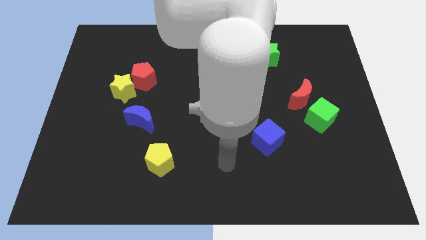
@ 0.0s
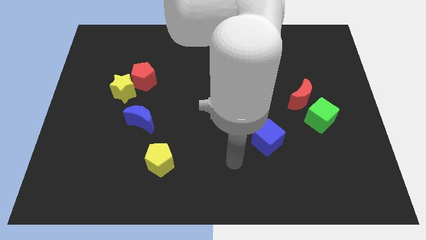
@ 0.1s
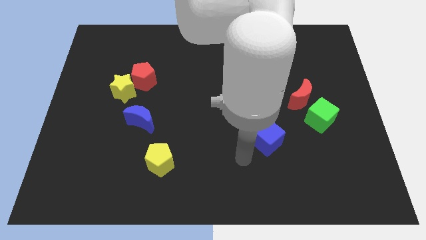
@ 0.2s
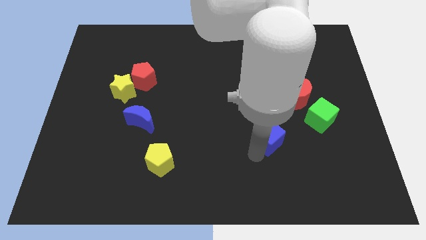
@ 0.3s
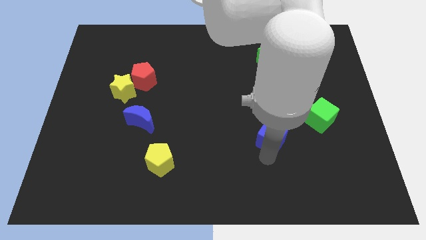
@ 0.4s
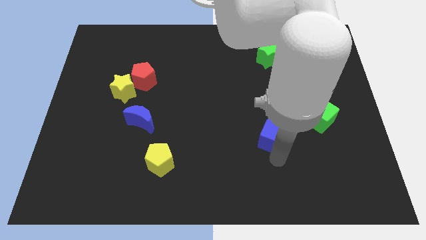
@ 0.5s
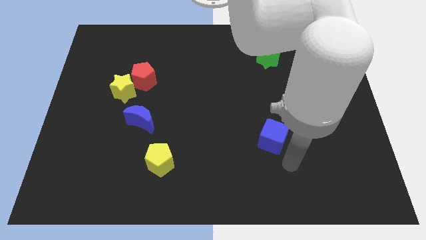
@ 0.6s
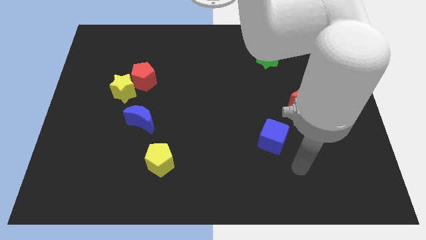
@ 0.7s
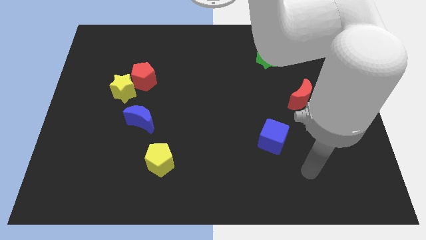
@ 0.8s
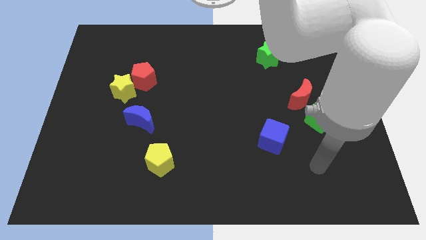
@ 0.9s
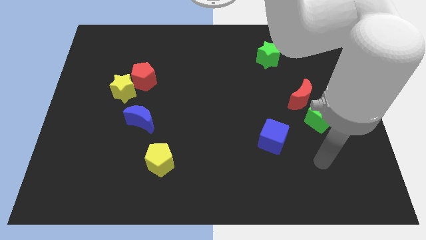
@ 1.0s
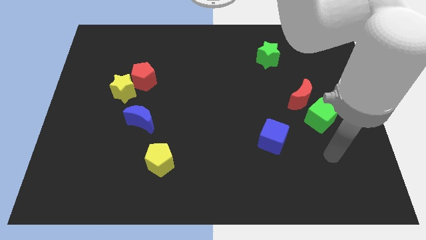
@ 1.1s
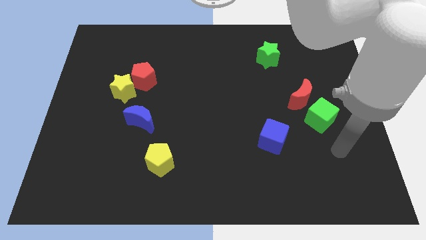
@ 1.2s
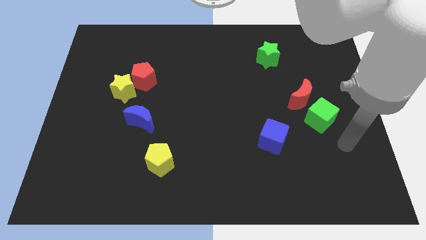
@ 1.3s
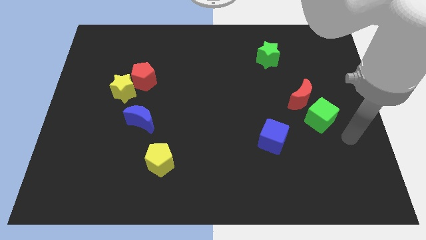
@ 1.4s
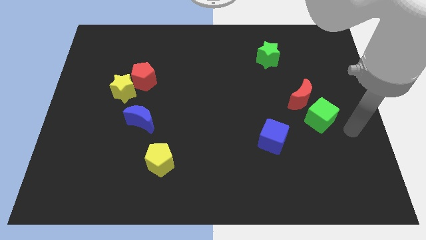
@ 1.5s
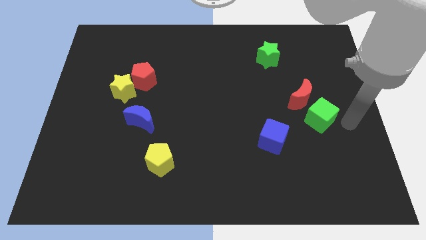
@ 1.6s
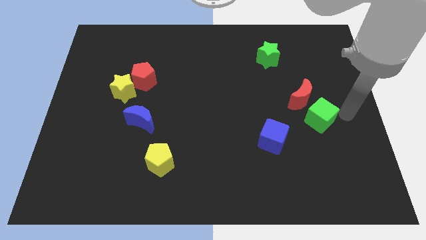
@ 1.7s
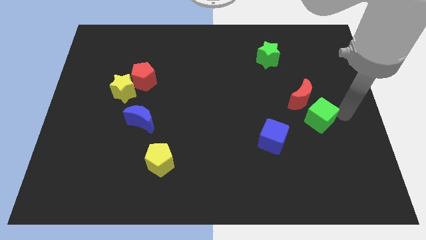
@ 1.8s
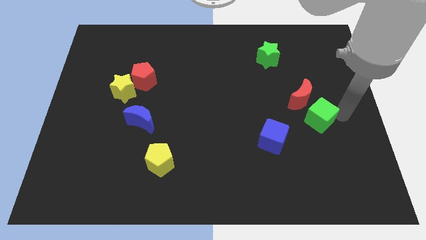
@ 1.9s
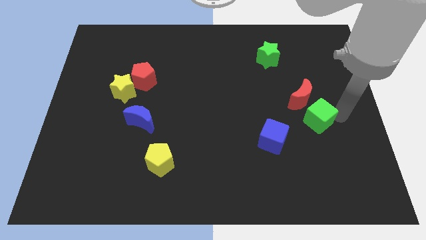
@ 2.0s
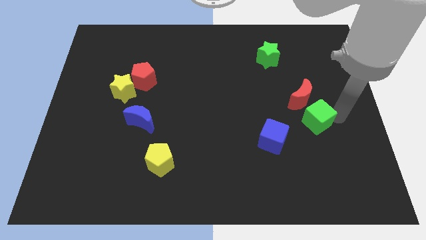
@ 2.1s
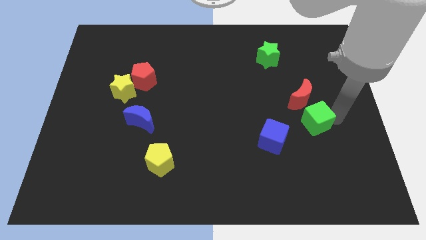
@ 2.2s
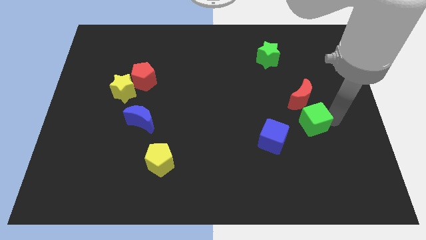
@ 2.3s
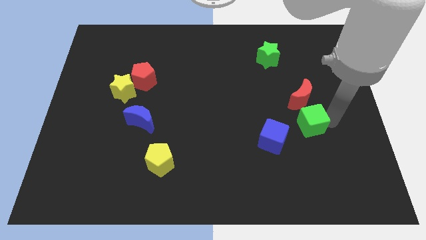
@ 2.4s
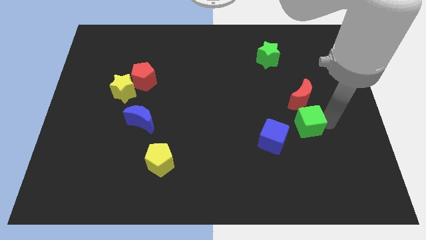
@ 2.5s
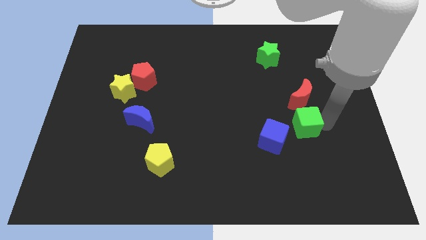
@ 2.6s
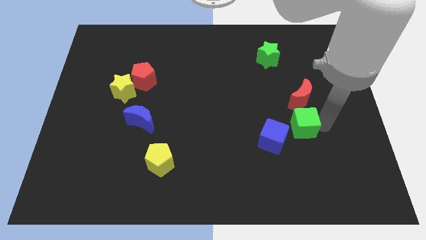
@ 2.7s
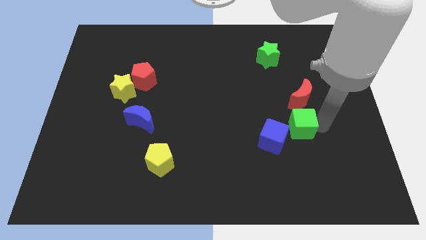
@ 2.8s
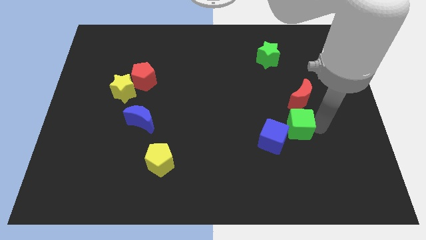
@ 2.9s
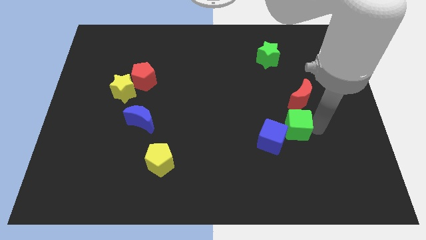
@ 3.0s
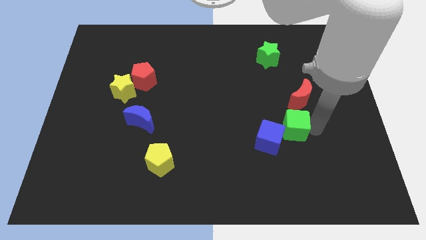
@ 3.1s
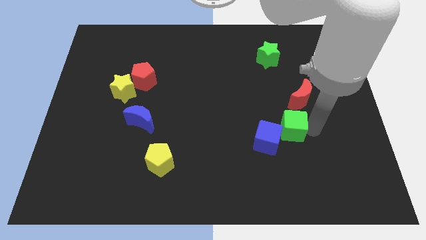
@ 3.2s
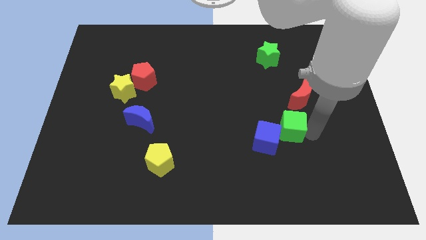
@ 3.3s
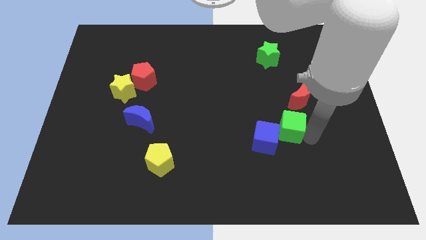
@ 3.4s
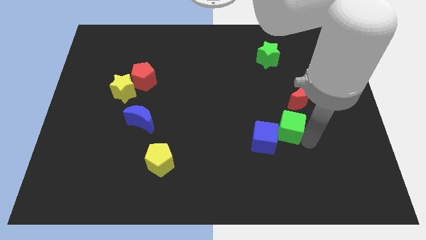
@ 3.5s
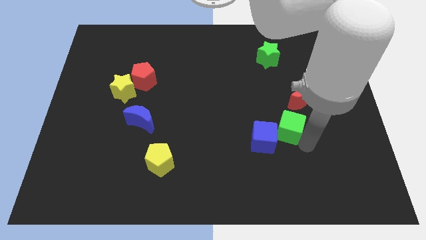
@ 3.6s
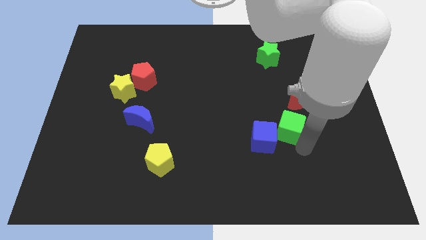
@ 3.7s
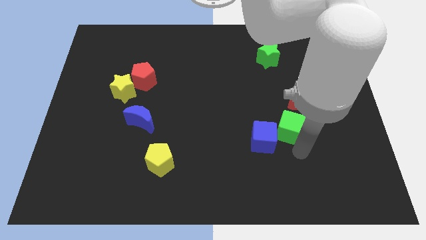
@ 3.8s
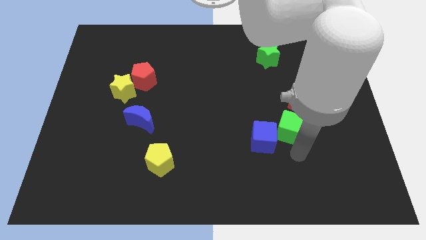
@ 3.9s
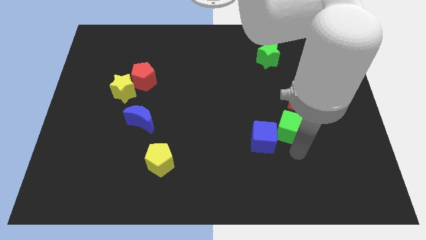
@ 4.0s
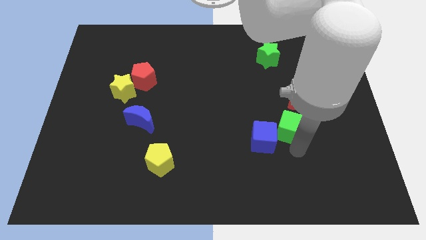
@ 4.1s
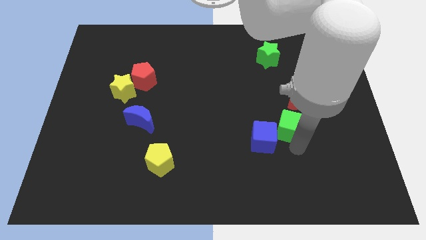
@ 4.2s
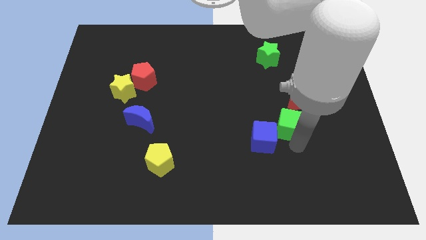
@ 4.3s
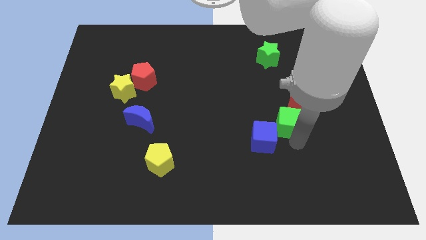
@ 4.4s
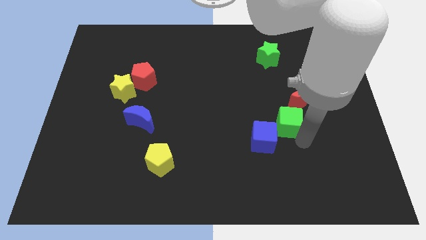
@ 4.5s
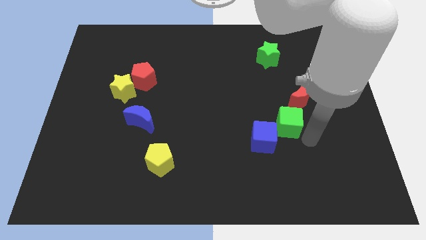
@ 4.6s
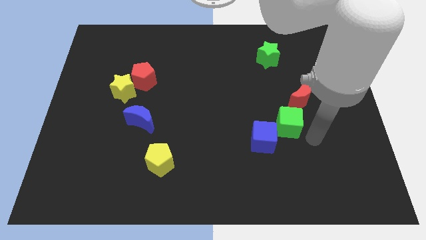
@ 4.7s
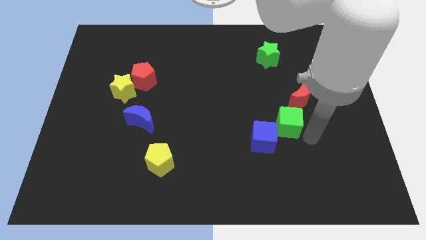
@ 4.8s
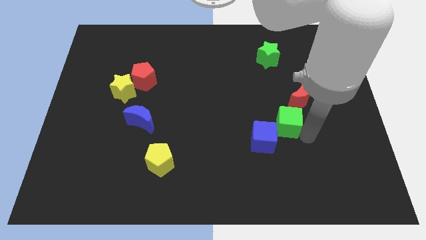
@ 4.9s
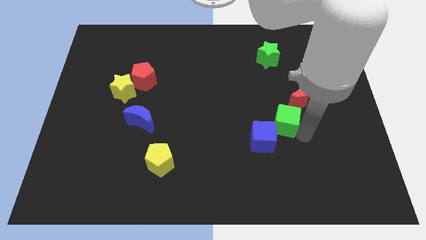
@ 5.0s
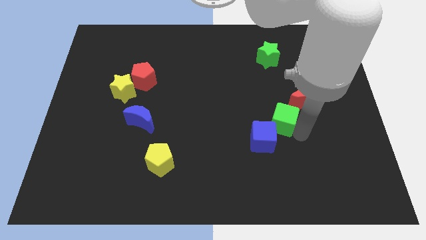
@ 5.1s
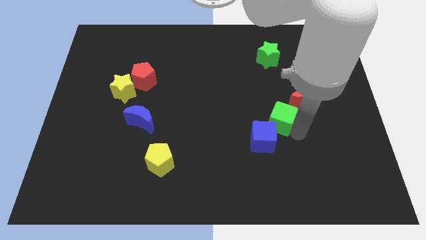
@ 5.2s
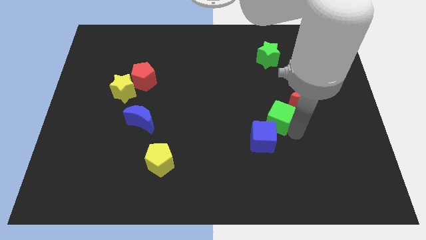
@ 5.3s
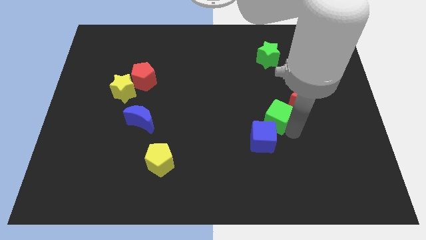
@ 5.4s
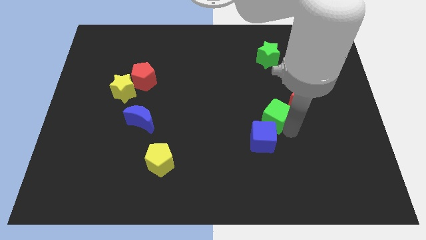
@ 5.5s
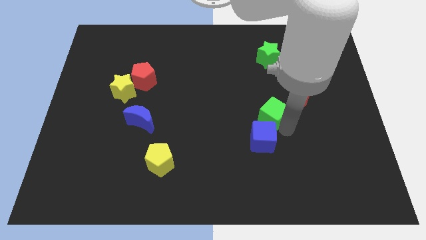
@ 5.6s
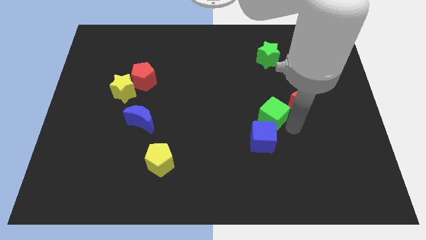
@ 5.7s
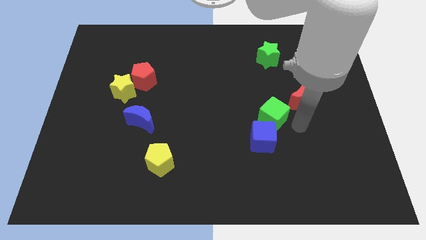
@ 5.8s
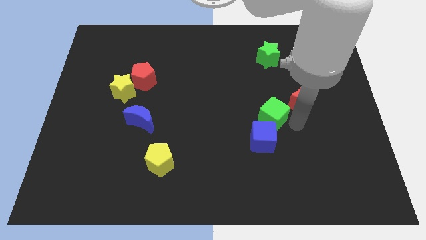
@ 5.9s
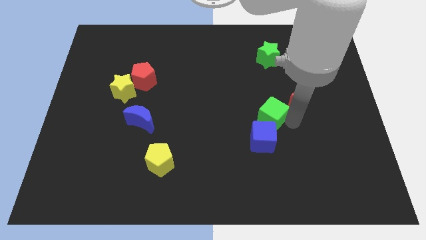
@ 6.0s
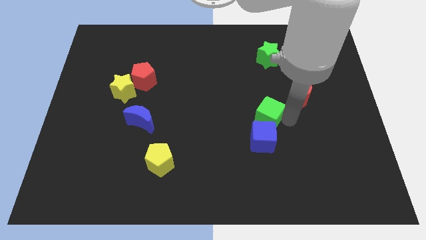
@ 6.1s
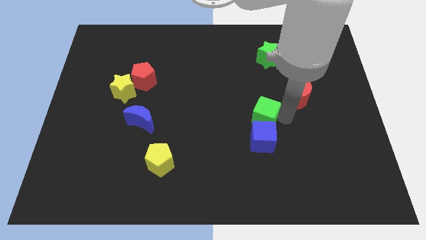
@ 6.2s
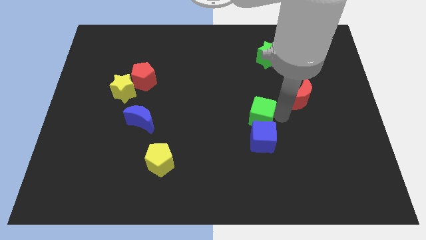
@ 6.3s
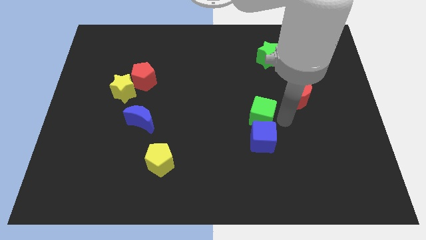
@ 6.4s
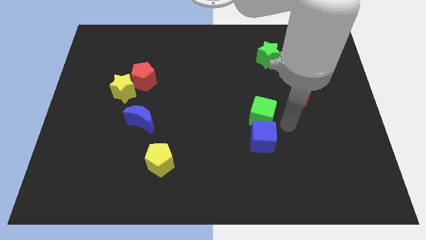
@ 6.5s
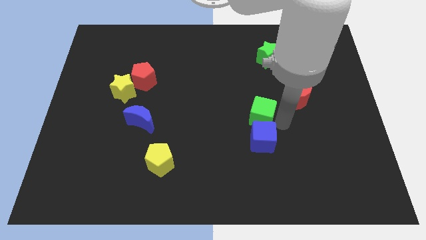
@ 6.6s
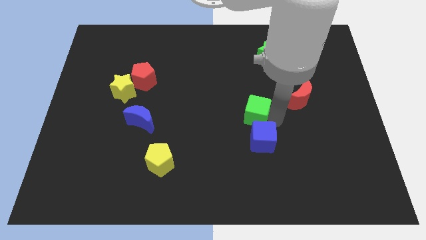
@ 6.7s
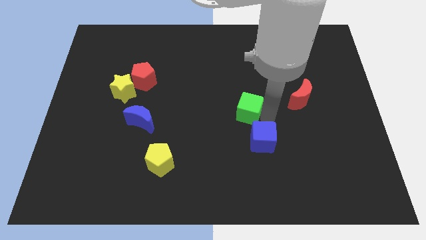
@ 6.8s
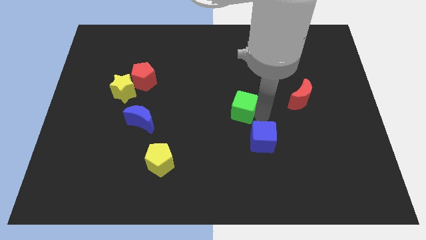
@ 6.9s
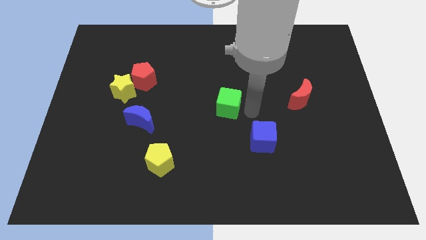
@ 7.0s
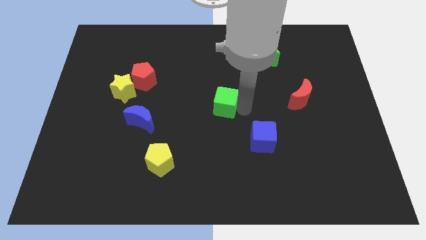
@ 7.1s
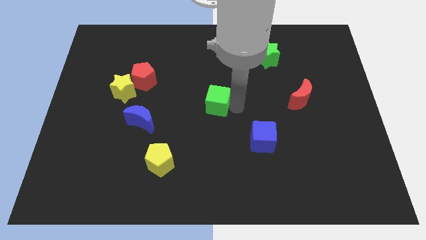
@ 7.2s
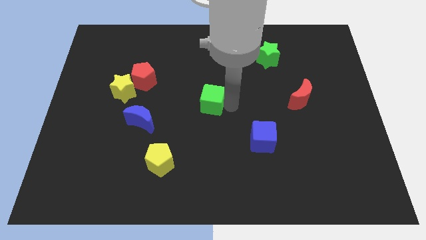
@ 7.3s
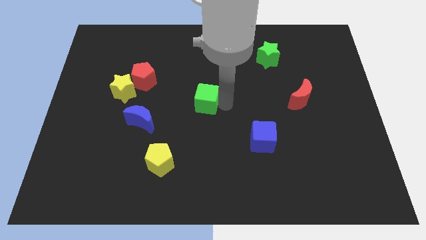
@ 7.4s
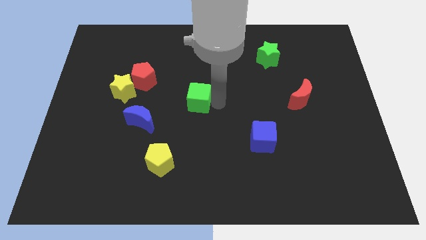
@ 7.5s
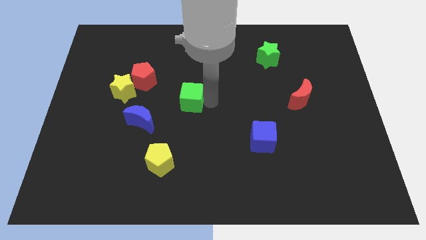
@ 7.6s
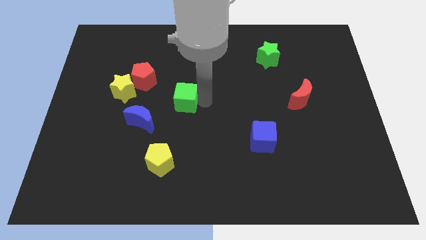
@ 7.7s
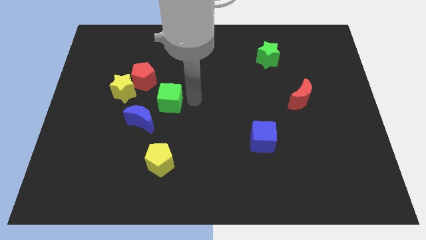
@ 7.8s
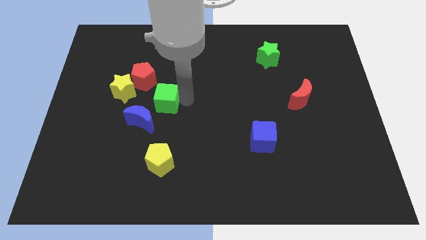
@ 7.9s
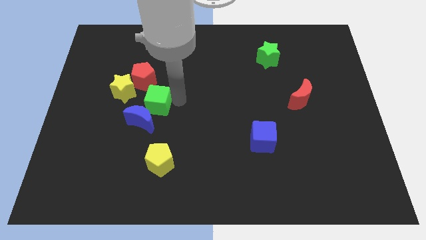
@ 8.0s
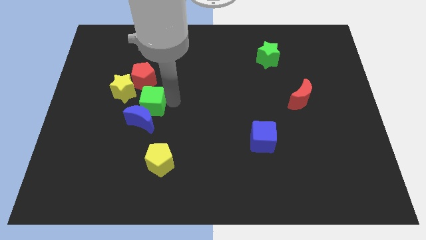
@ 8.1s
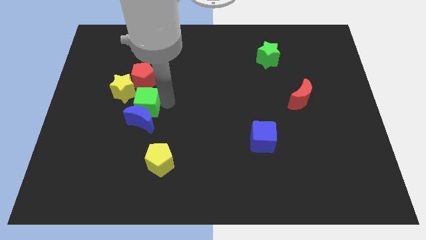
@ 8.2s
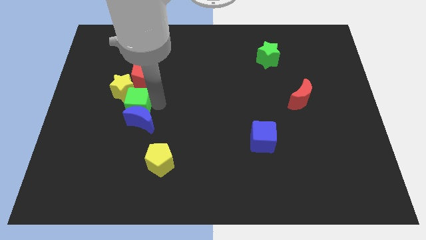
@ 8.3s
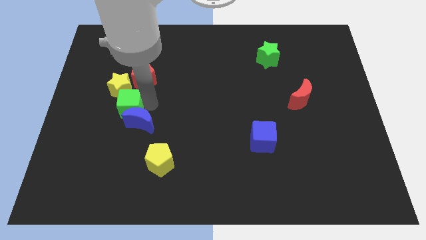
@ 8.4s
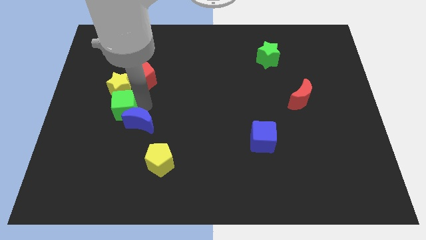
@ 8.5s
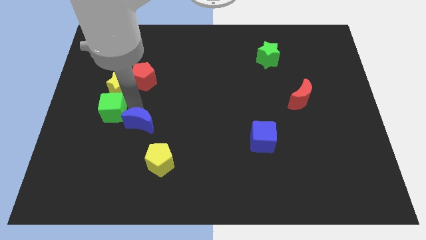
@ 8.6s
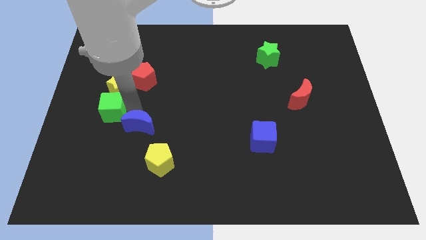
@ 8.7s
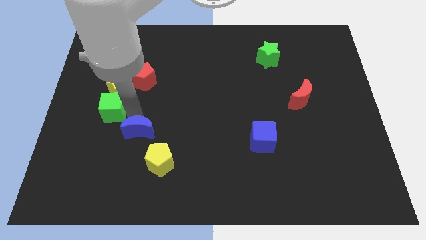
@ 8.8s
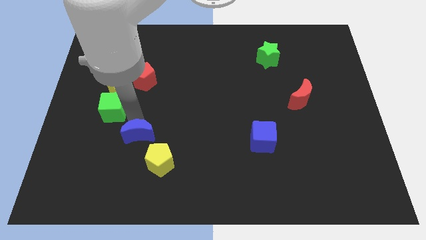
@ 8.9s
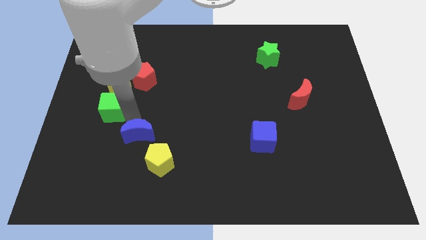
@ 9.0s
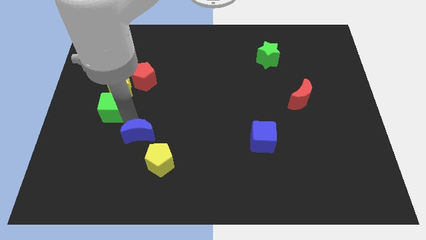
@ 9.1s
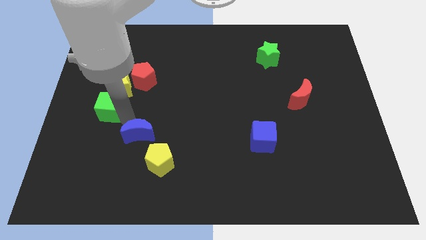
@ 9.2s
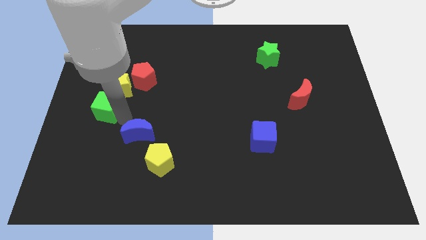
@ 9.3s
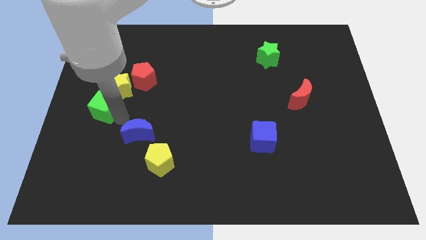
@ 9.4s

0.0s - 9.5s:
put the green cube to the center left
